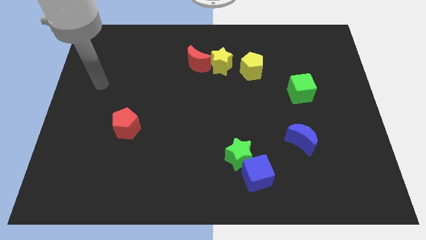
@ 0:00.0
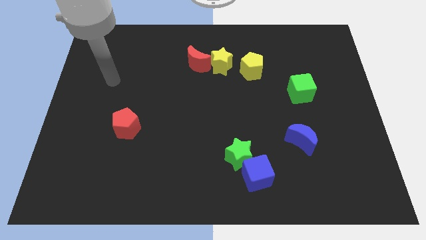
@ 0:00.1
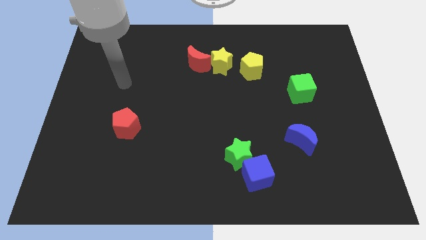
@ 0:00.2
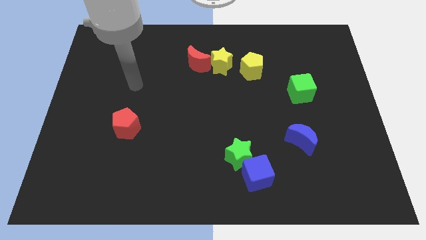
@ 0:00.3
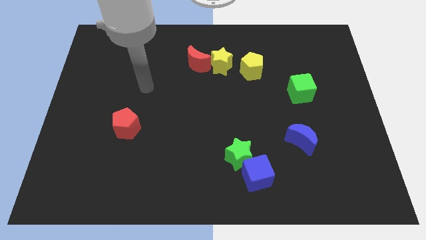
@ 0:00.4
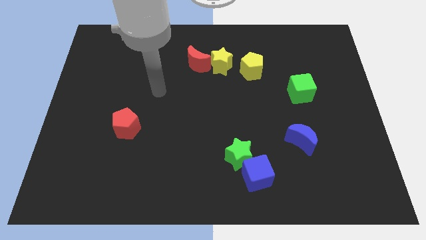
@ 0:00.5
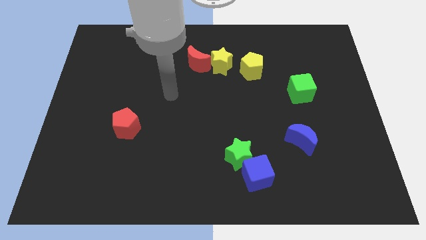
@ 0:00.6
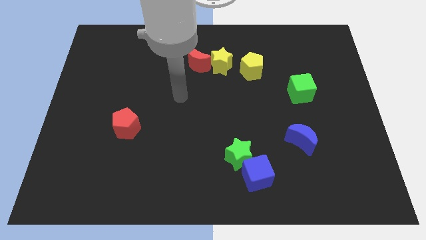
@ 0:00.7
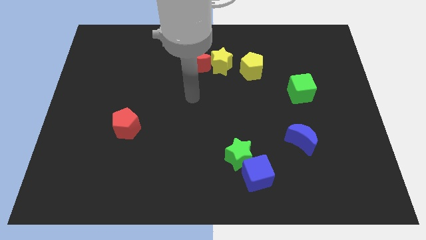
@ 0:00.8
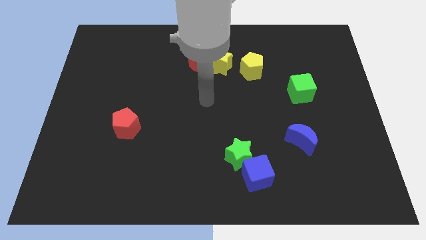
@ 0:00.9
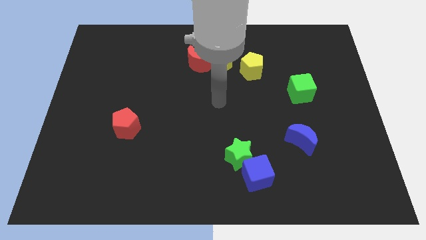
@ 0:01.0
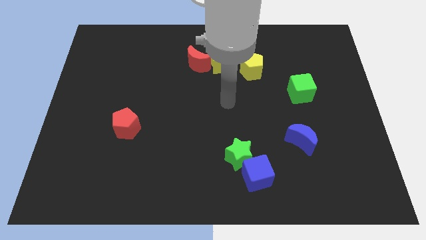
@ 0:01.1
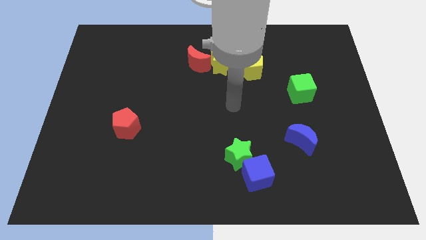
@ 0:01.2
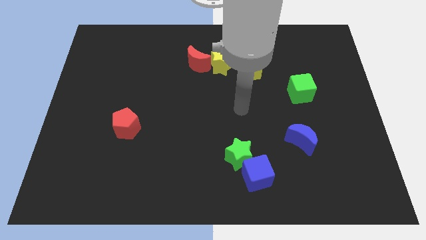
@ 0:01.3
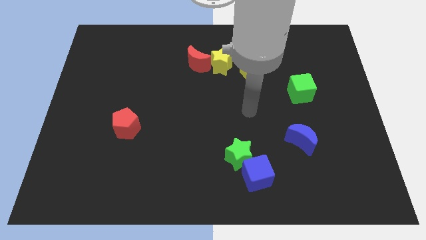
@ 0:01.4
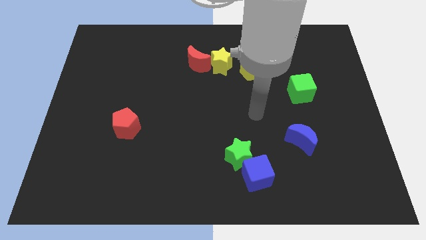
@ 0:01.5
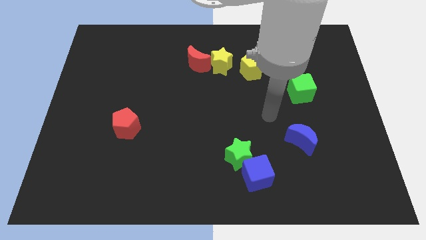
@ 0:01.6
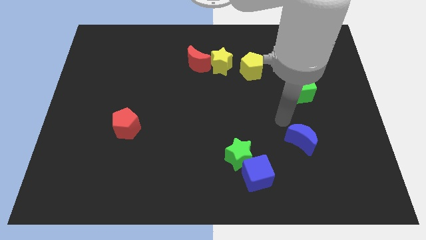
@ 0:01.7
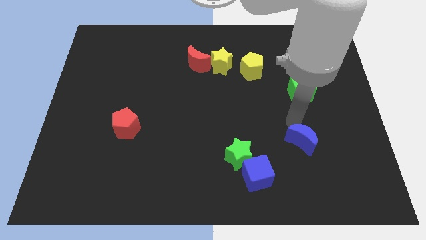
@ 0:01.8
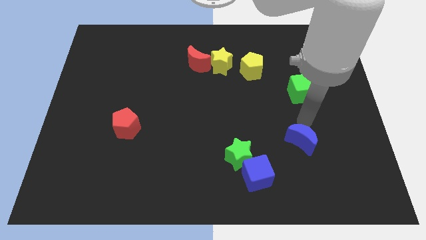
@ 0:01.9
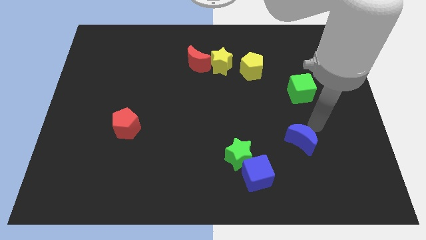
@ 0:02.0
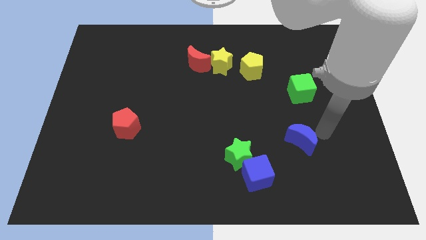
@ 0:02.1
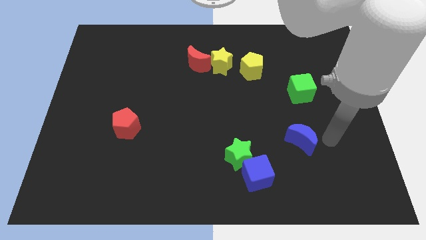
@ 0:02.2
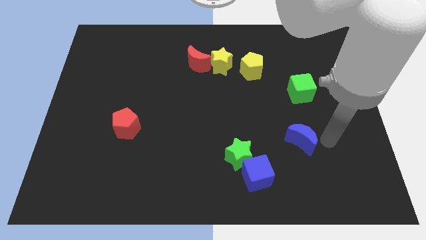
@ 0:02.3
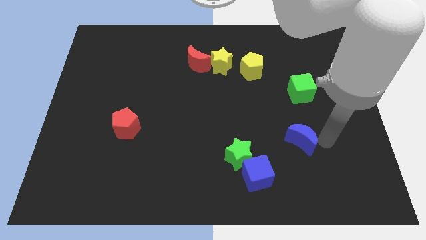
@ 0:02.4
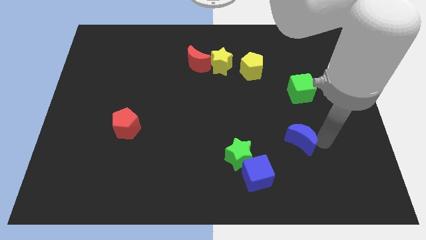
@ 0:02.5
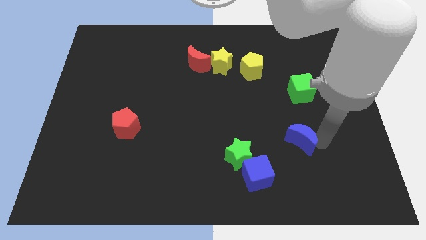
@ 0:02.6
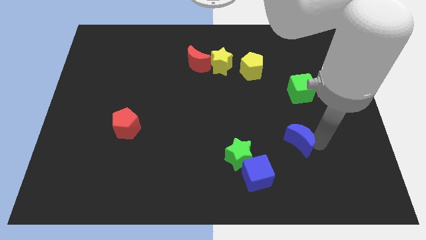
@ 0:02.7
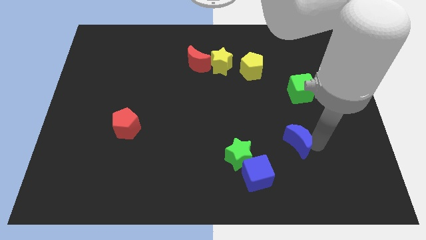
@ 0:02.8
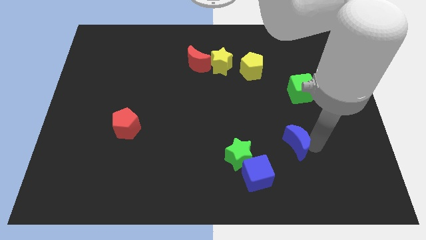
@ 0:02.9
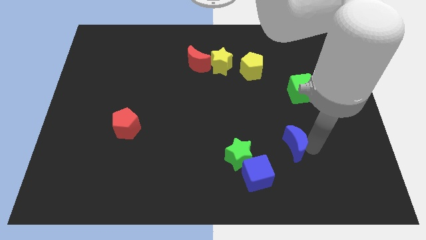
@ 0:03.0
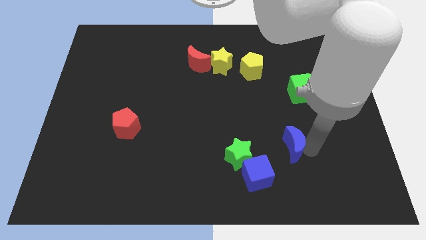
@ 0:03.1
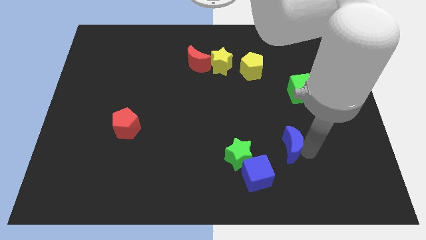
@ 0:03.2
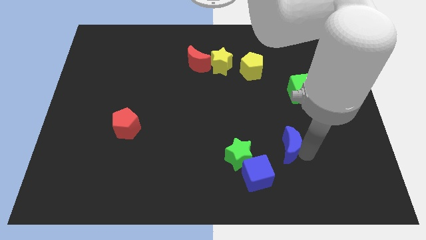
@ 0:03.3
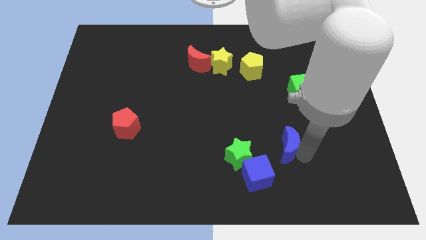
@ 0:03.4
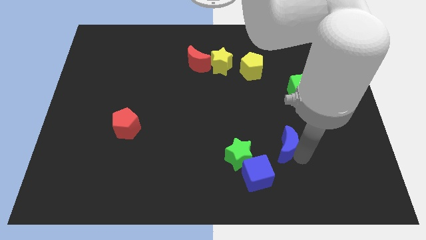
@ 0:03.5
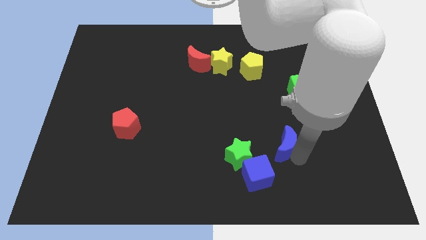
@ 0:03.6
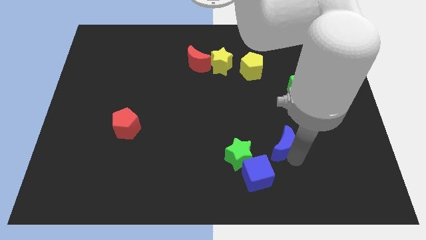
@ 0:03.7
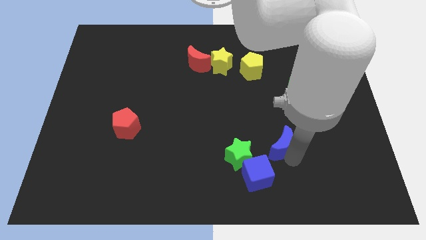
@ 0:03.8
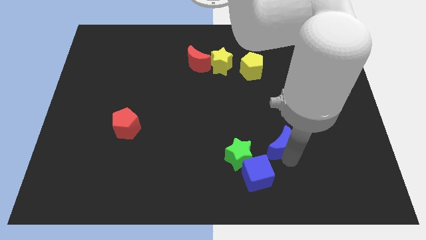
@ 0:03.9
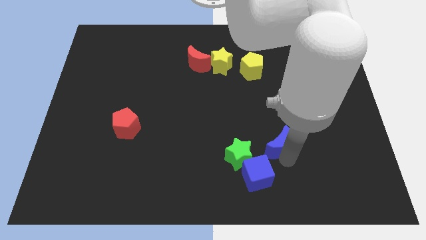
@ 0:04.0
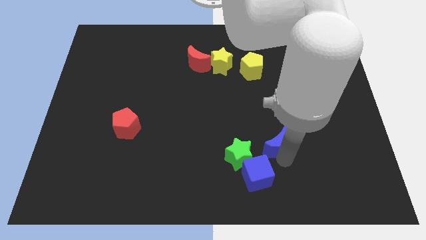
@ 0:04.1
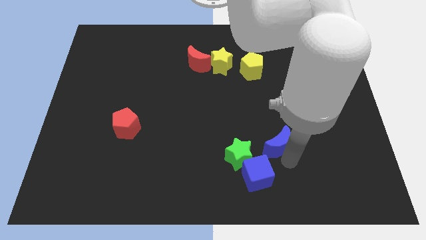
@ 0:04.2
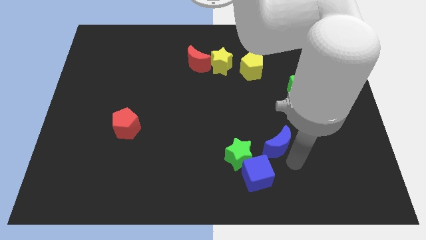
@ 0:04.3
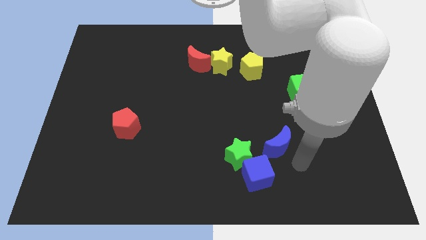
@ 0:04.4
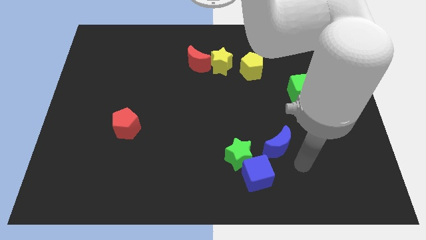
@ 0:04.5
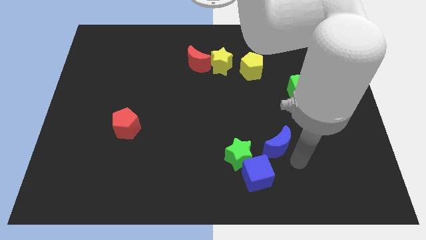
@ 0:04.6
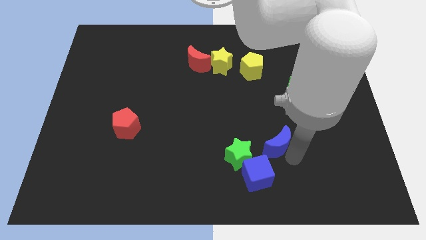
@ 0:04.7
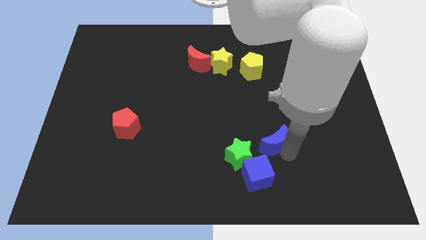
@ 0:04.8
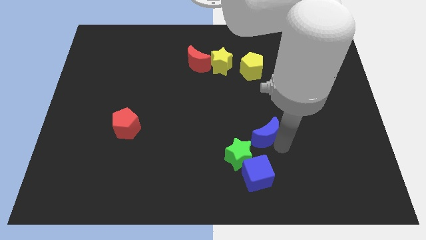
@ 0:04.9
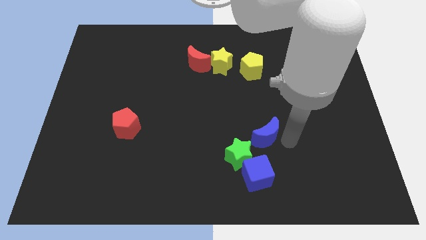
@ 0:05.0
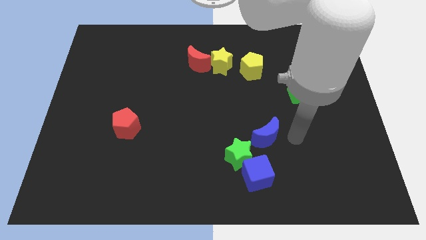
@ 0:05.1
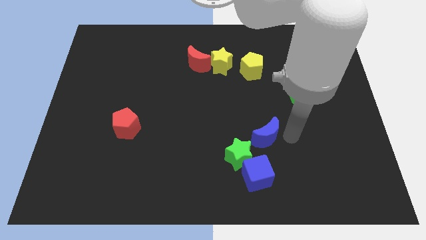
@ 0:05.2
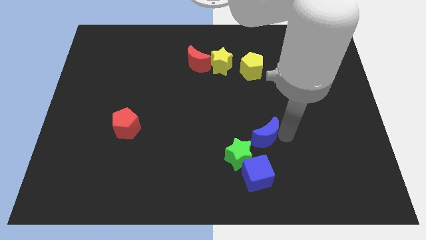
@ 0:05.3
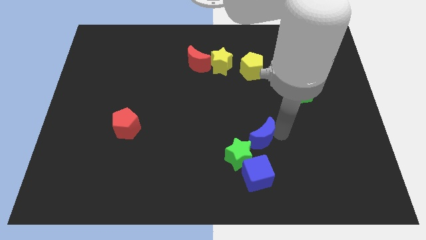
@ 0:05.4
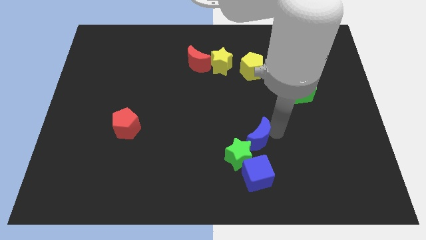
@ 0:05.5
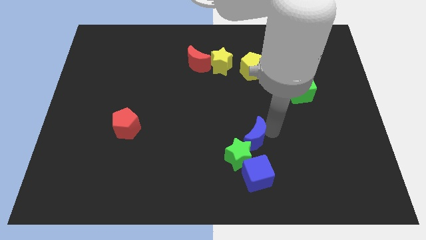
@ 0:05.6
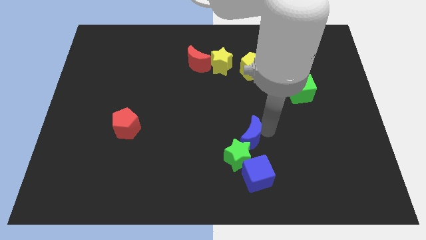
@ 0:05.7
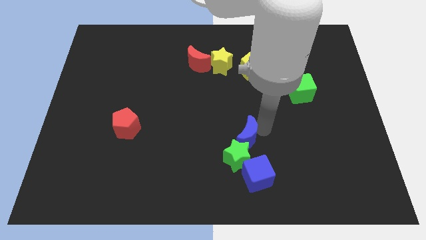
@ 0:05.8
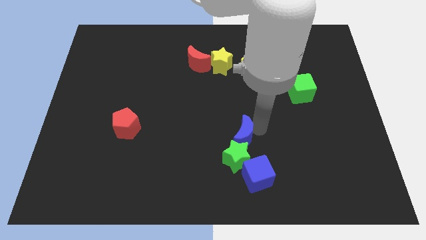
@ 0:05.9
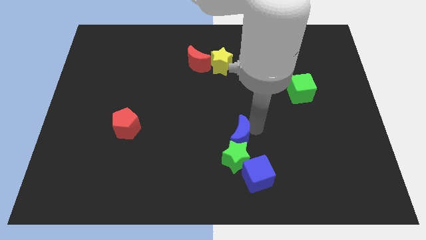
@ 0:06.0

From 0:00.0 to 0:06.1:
slide the blue moon to the top left of the green star

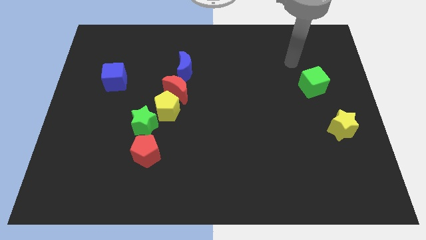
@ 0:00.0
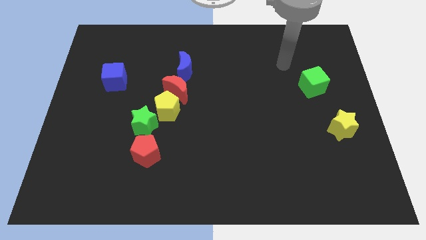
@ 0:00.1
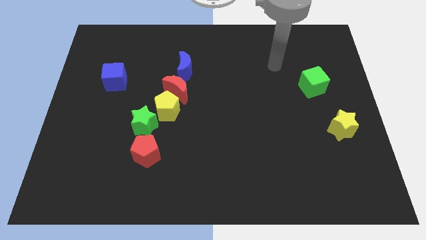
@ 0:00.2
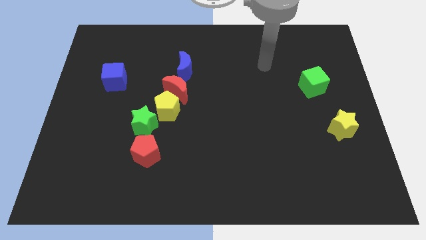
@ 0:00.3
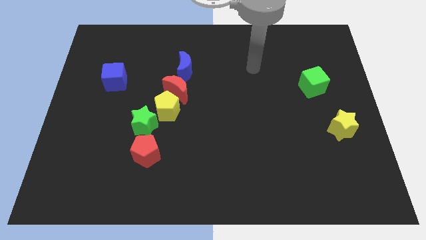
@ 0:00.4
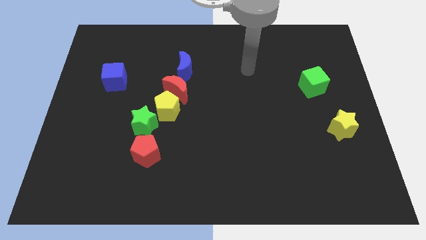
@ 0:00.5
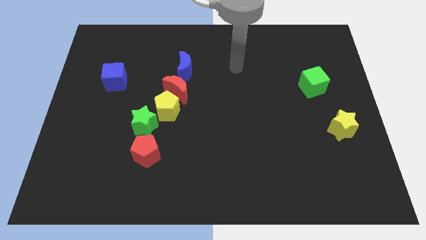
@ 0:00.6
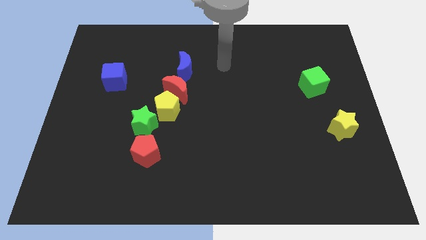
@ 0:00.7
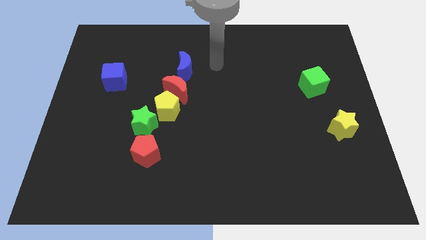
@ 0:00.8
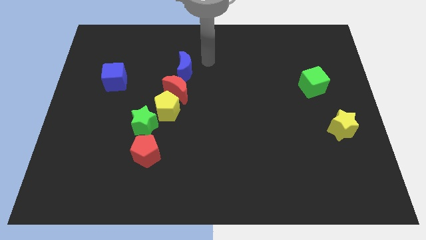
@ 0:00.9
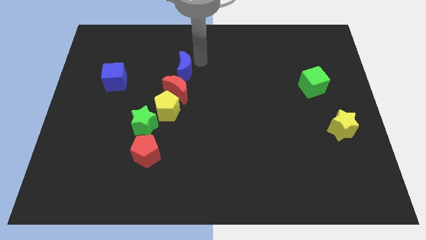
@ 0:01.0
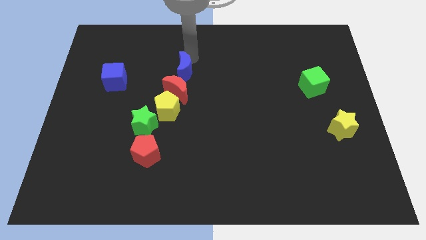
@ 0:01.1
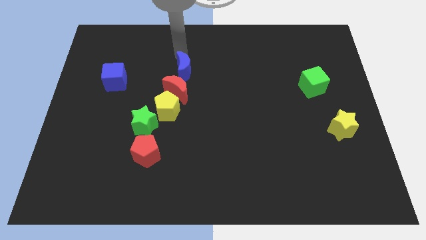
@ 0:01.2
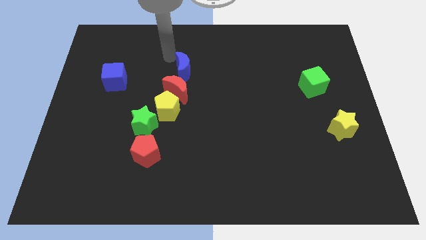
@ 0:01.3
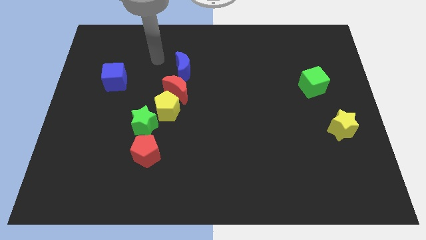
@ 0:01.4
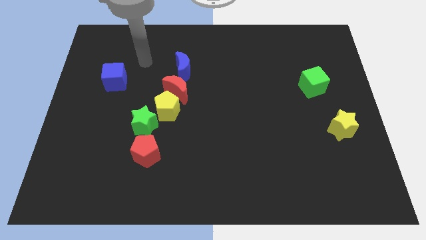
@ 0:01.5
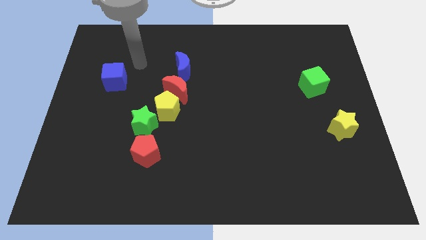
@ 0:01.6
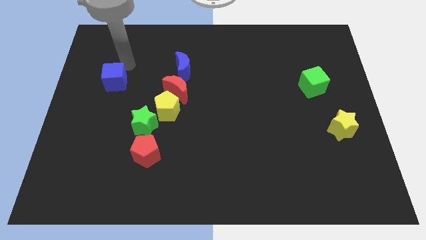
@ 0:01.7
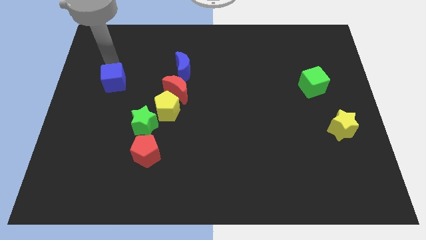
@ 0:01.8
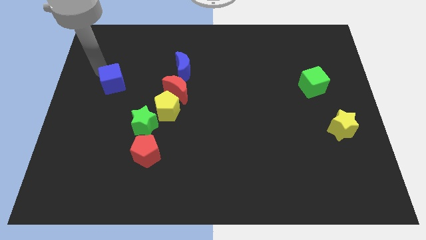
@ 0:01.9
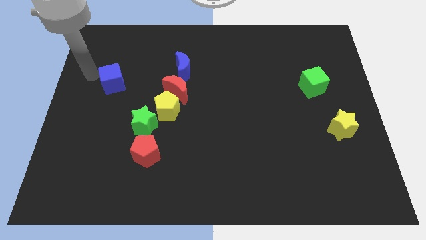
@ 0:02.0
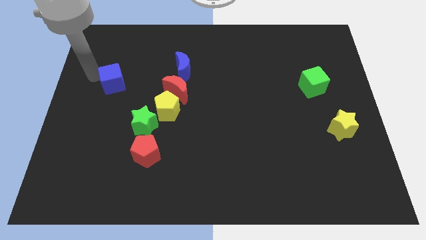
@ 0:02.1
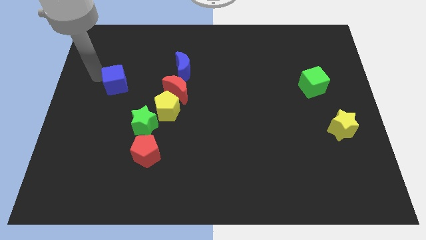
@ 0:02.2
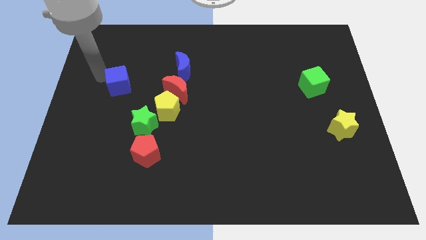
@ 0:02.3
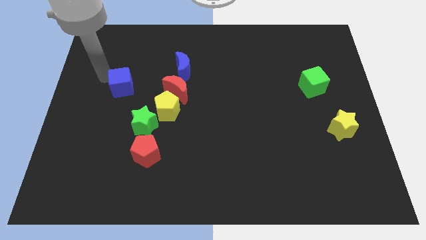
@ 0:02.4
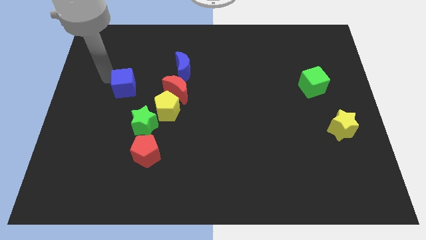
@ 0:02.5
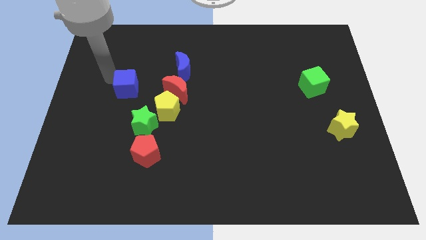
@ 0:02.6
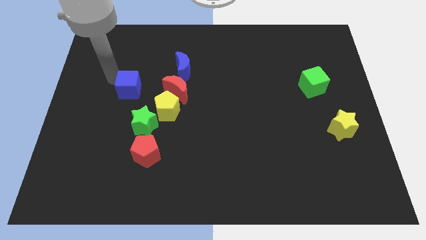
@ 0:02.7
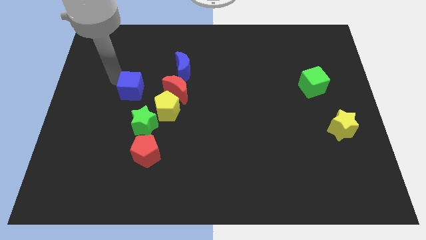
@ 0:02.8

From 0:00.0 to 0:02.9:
put the blue cube to the top side of the green star
